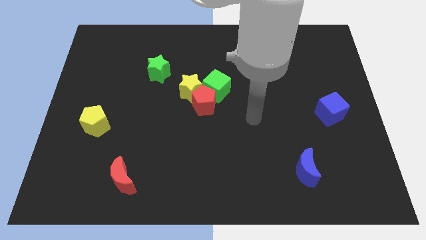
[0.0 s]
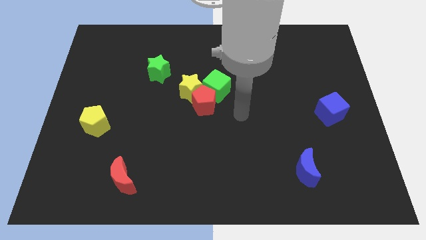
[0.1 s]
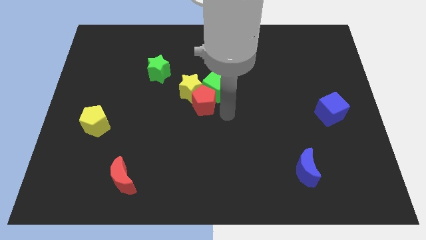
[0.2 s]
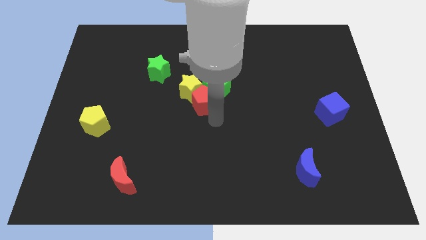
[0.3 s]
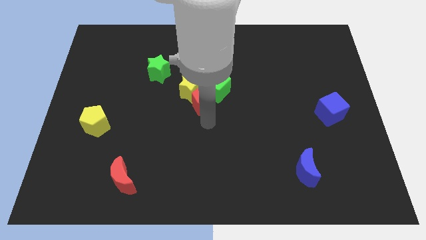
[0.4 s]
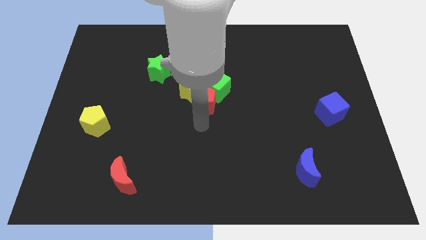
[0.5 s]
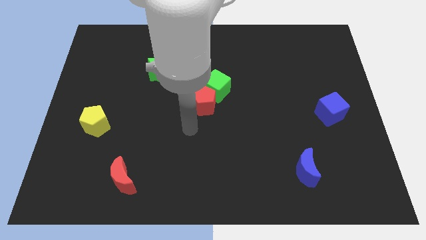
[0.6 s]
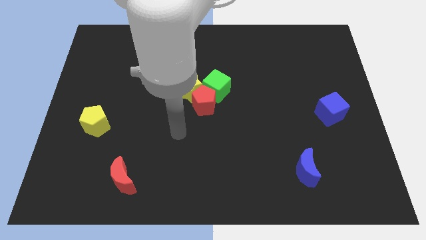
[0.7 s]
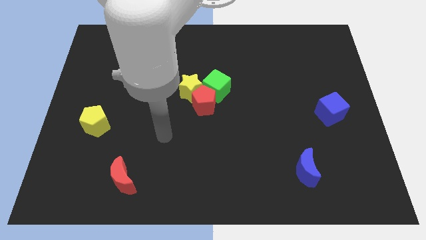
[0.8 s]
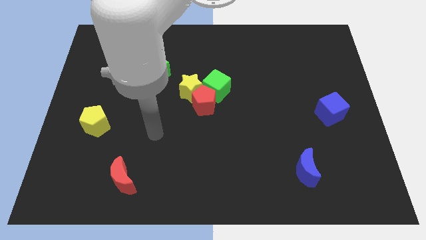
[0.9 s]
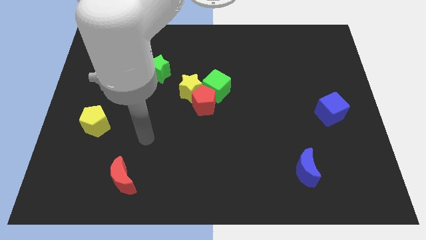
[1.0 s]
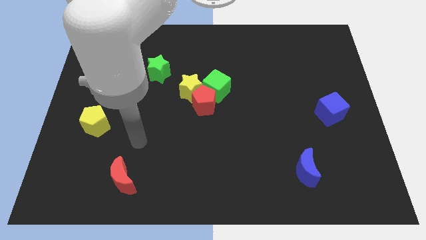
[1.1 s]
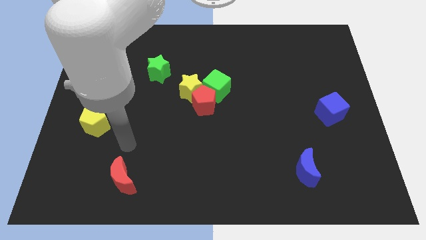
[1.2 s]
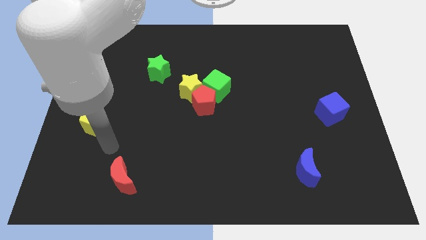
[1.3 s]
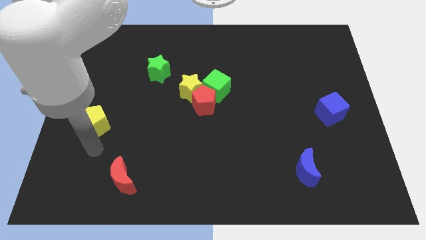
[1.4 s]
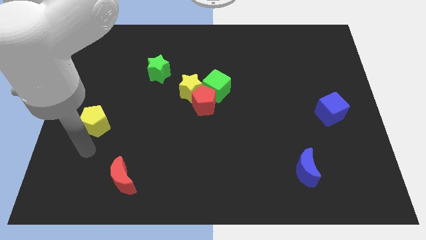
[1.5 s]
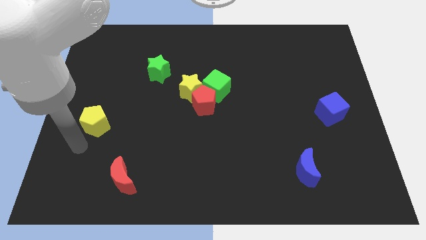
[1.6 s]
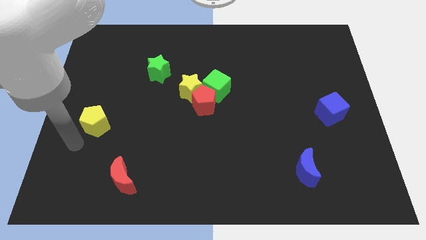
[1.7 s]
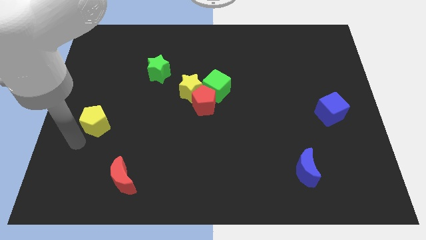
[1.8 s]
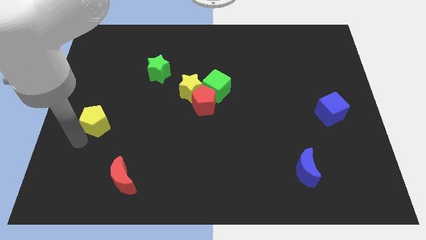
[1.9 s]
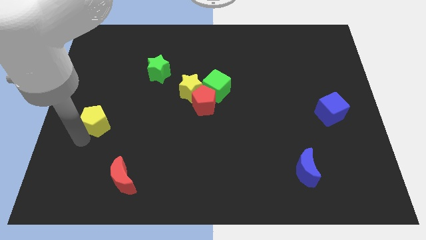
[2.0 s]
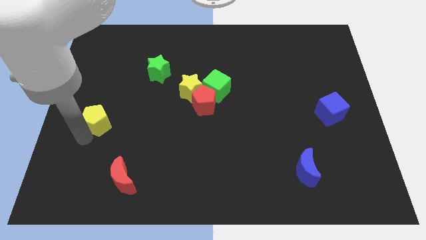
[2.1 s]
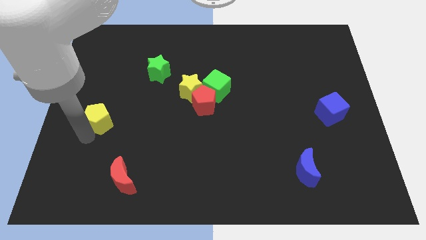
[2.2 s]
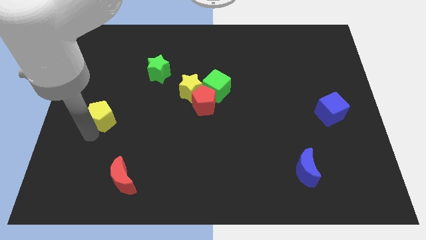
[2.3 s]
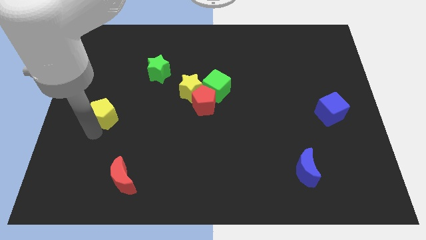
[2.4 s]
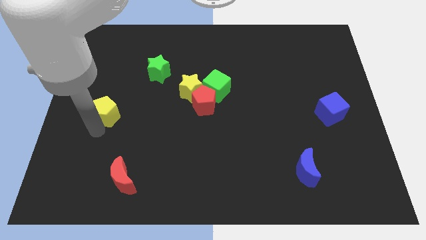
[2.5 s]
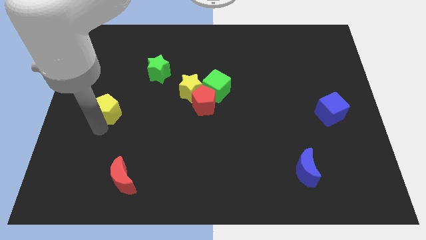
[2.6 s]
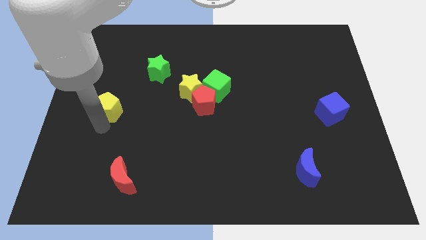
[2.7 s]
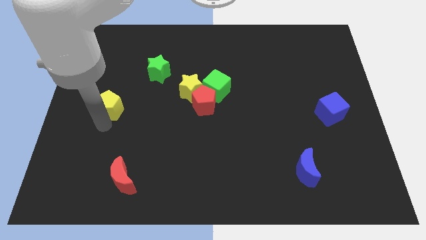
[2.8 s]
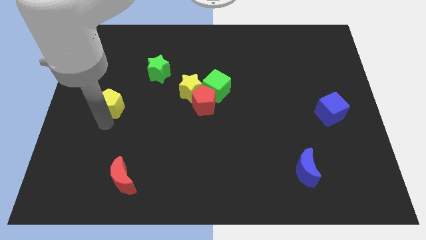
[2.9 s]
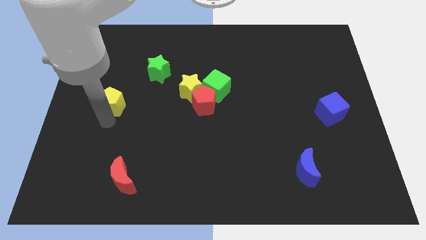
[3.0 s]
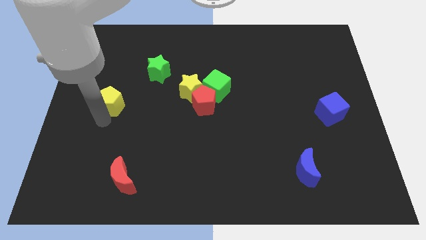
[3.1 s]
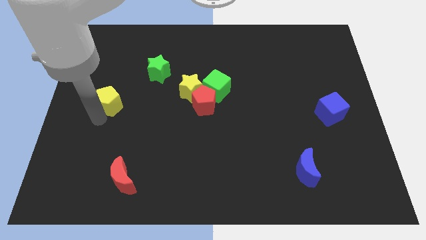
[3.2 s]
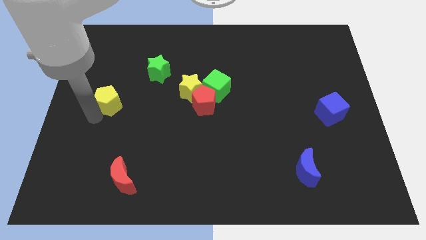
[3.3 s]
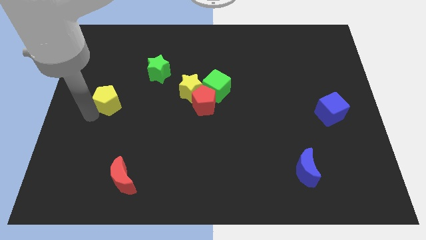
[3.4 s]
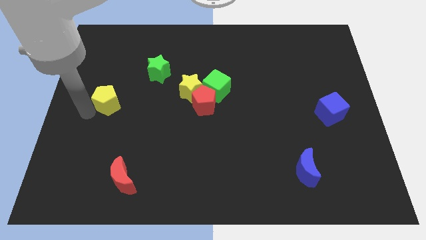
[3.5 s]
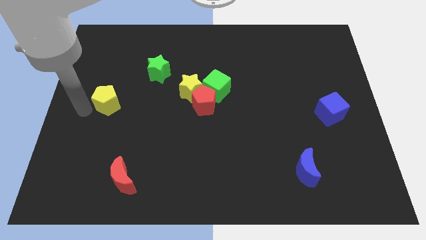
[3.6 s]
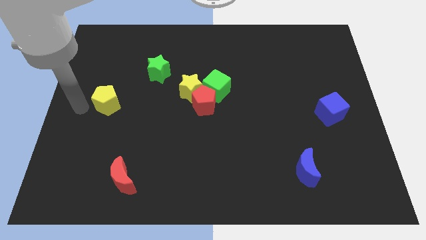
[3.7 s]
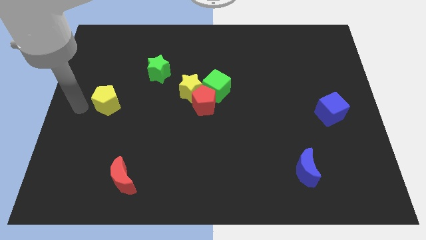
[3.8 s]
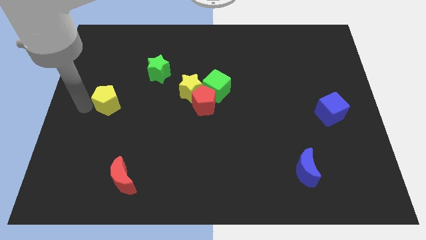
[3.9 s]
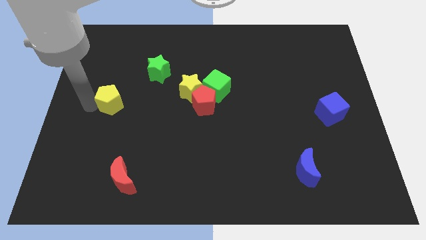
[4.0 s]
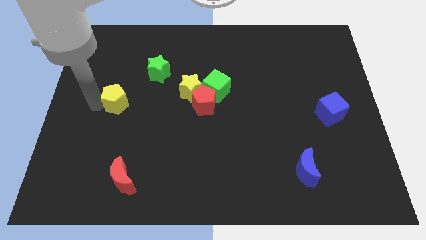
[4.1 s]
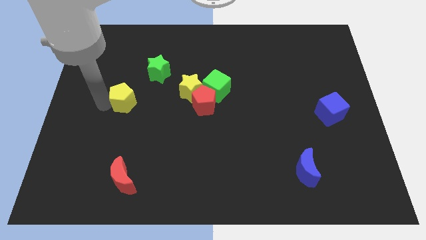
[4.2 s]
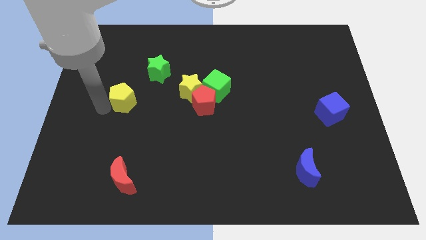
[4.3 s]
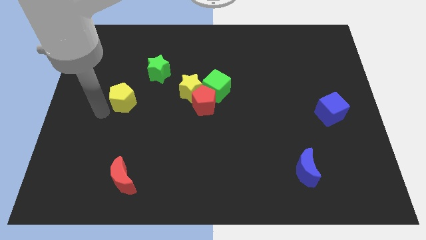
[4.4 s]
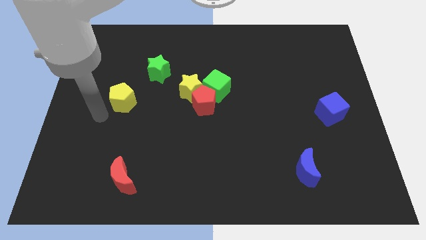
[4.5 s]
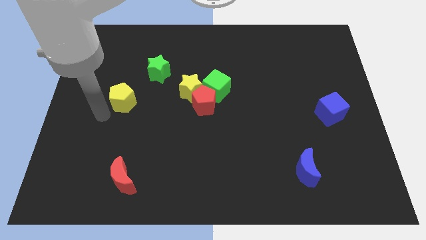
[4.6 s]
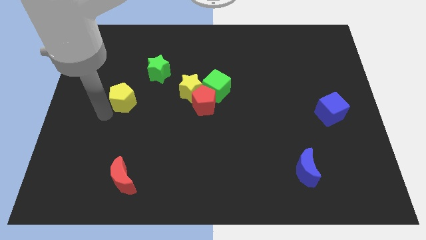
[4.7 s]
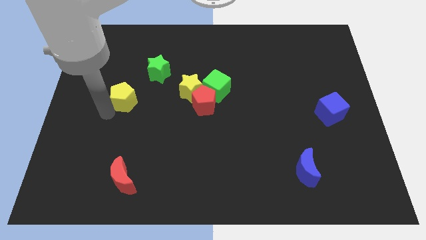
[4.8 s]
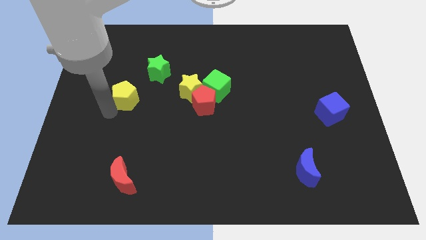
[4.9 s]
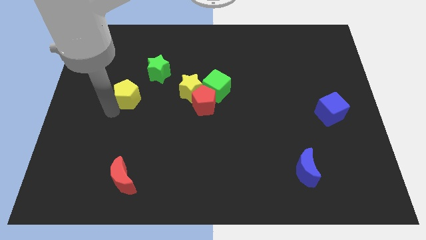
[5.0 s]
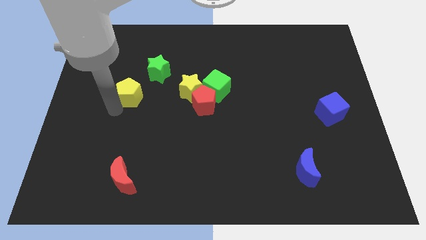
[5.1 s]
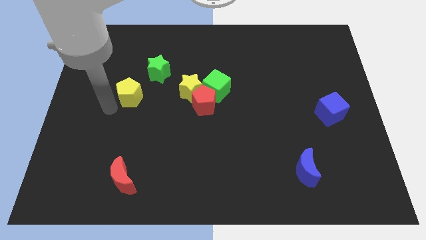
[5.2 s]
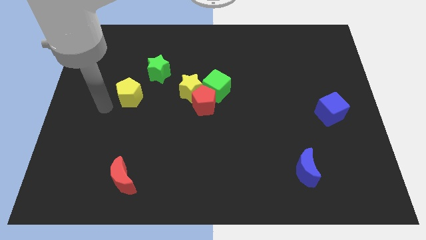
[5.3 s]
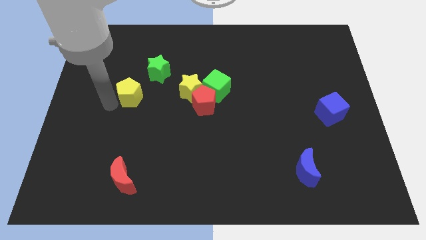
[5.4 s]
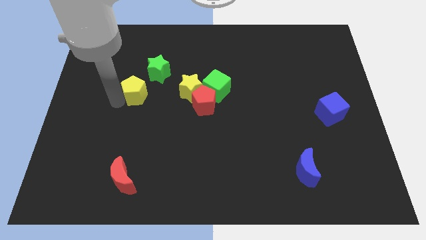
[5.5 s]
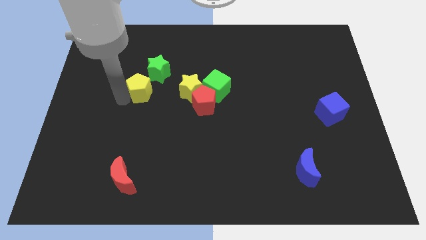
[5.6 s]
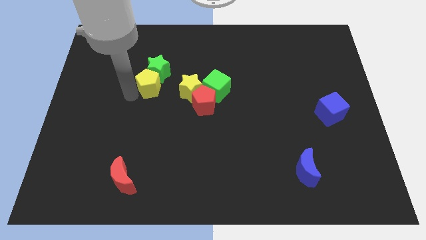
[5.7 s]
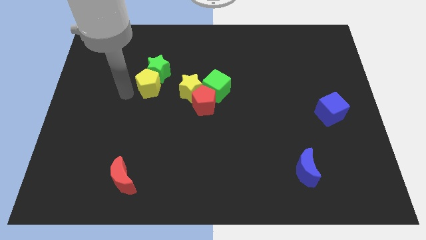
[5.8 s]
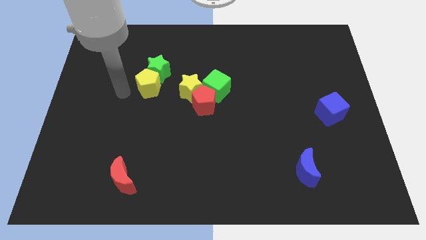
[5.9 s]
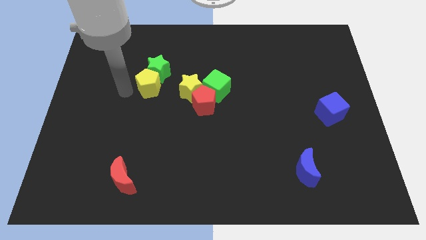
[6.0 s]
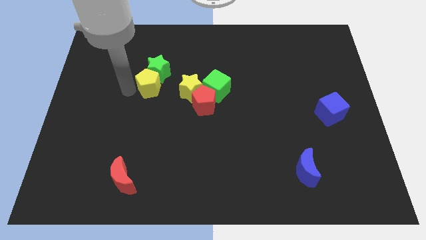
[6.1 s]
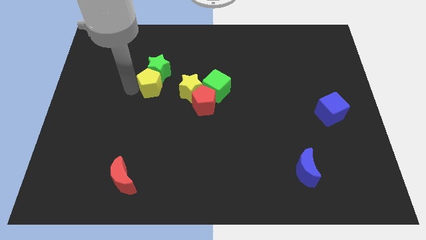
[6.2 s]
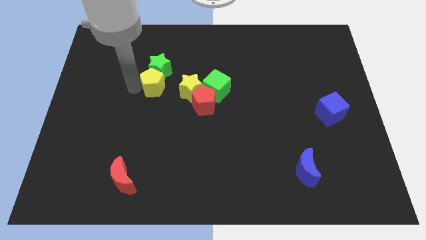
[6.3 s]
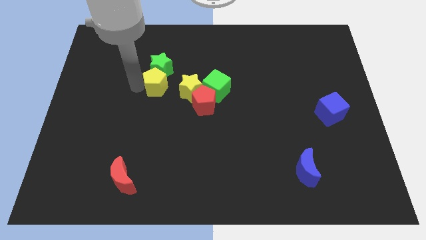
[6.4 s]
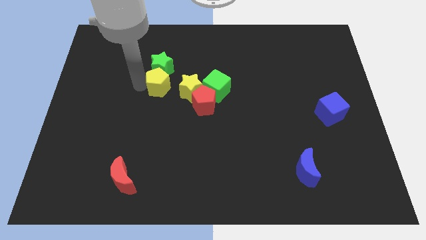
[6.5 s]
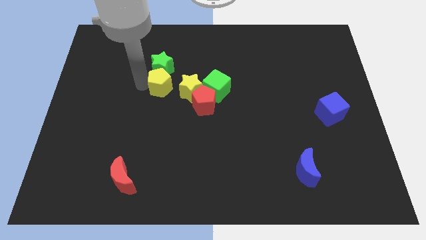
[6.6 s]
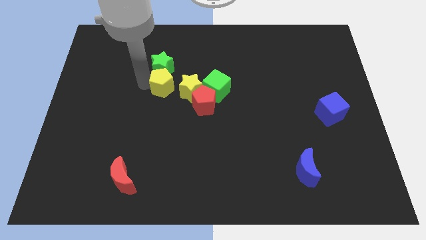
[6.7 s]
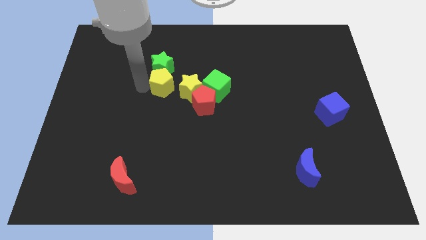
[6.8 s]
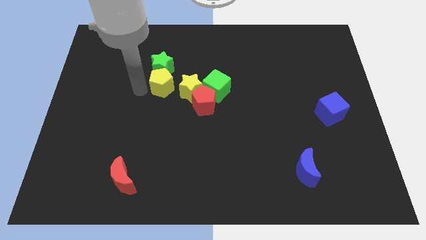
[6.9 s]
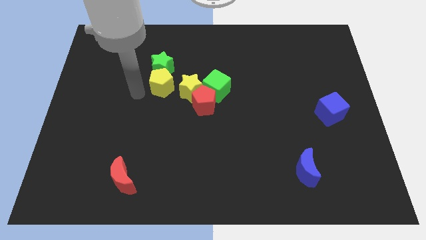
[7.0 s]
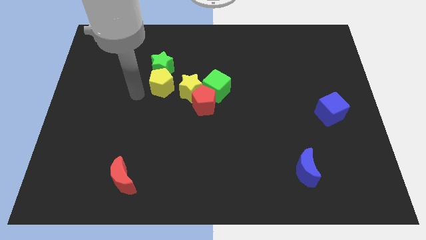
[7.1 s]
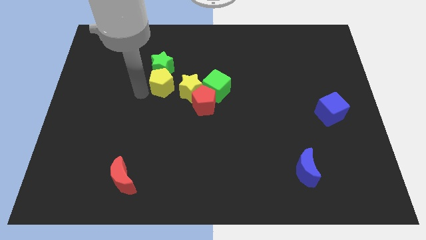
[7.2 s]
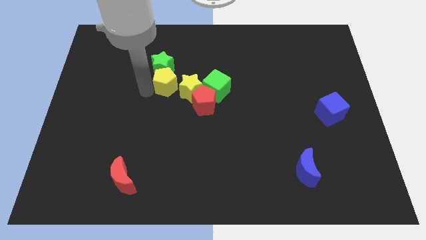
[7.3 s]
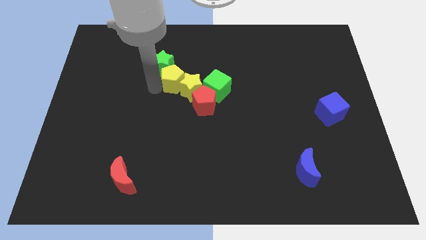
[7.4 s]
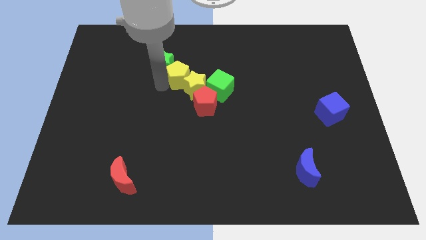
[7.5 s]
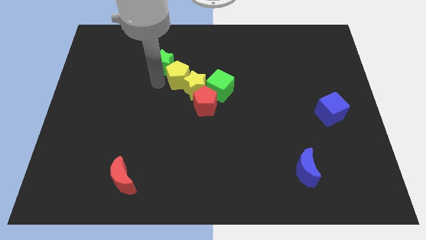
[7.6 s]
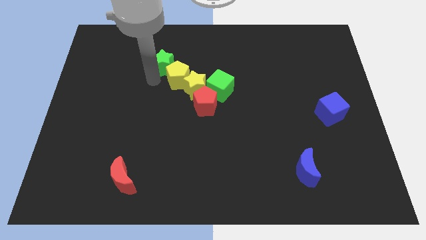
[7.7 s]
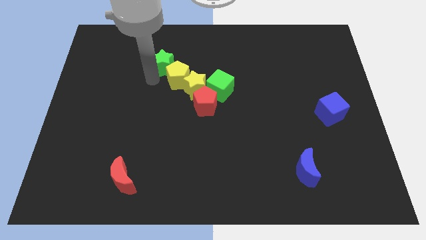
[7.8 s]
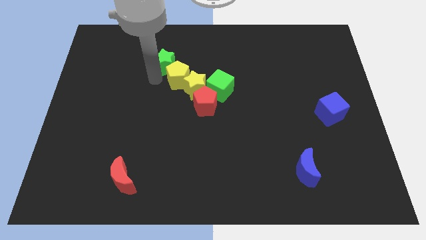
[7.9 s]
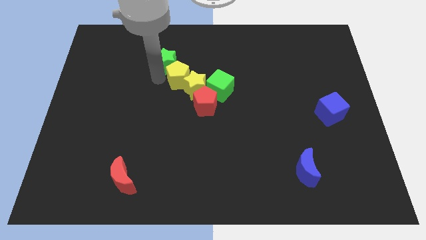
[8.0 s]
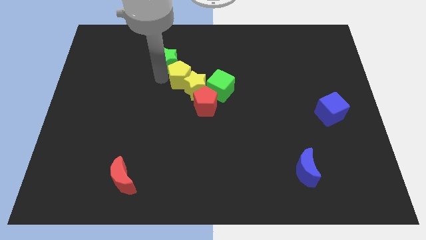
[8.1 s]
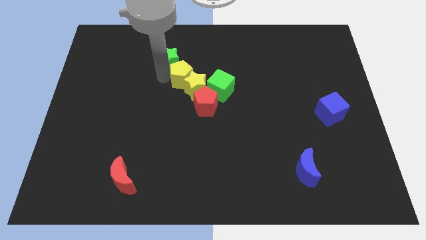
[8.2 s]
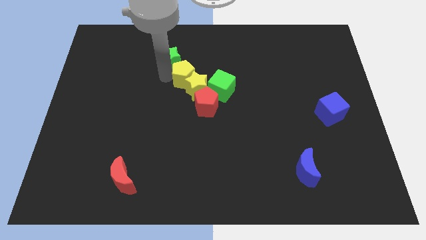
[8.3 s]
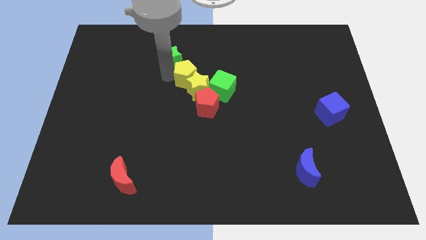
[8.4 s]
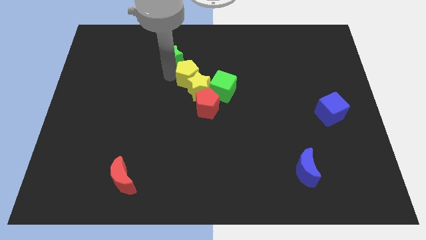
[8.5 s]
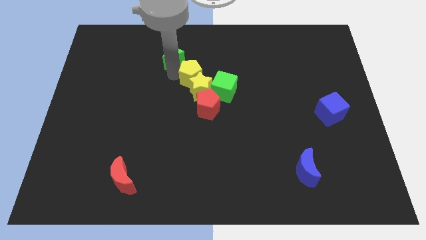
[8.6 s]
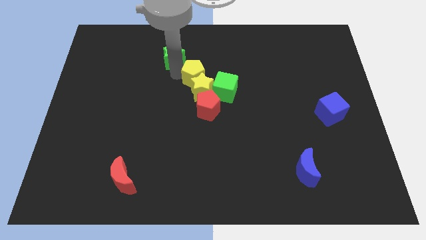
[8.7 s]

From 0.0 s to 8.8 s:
move the yellow pentagon to the top right of the yellow star
